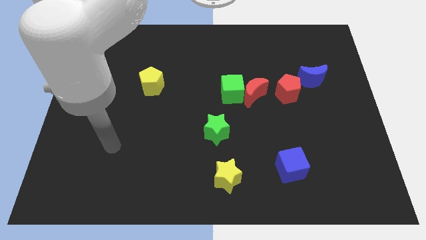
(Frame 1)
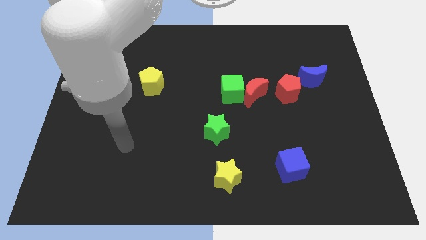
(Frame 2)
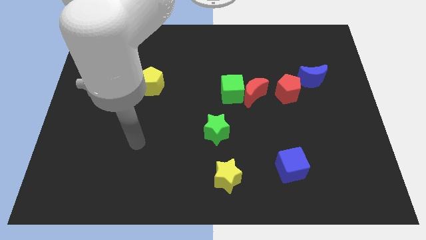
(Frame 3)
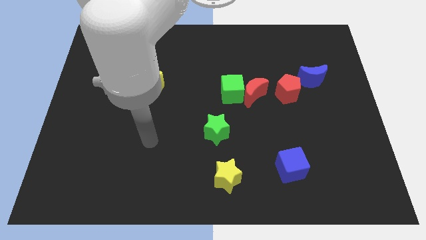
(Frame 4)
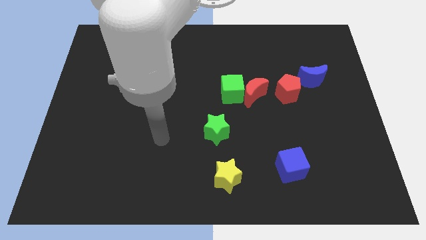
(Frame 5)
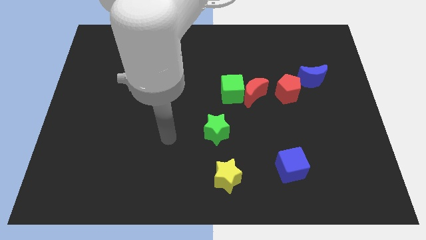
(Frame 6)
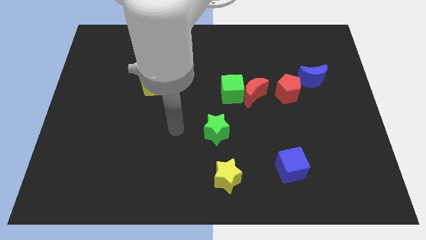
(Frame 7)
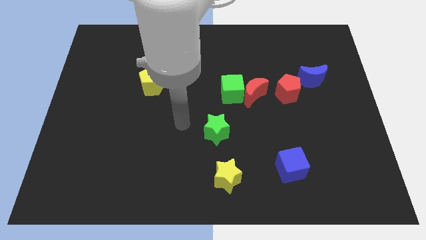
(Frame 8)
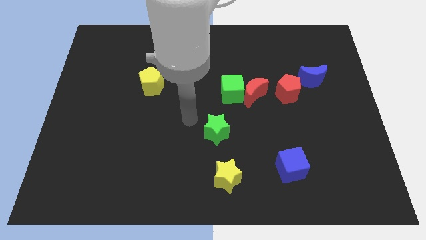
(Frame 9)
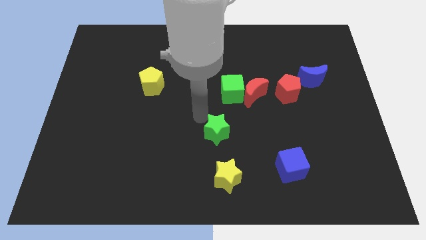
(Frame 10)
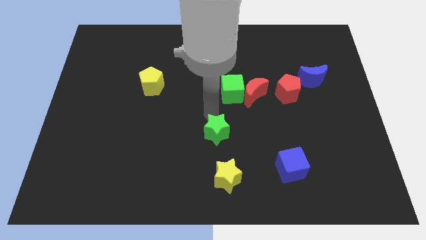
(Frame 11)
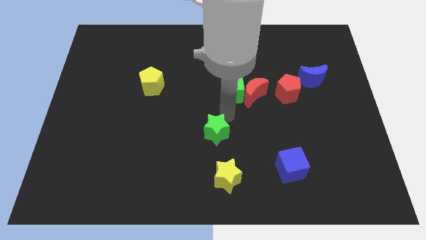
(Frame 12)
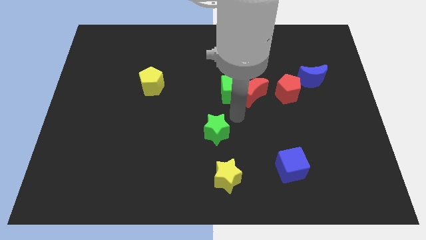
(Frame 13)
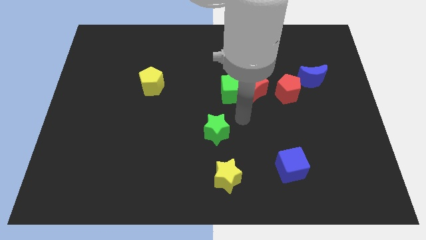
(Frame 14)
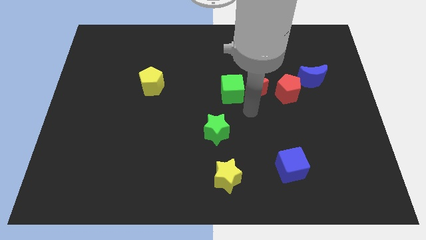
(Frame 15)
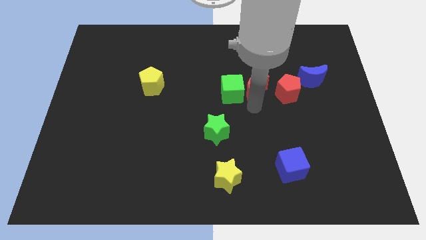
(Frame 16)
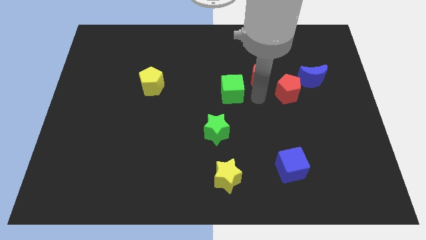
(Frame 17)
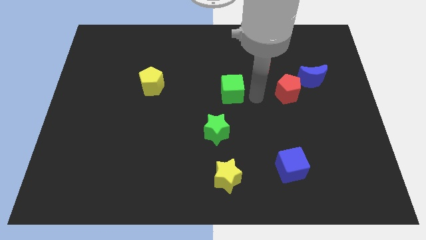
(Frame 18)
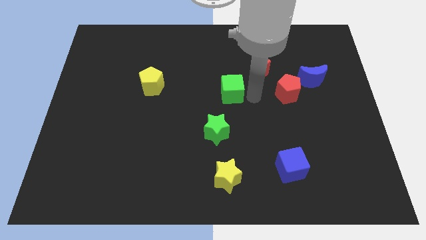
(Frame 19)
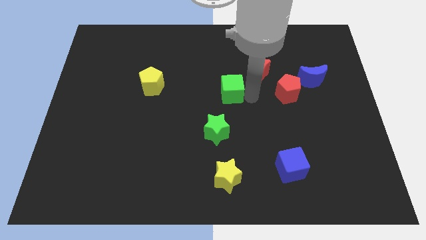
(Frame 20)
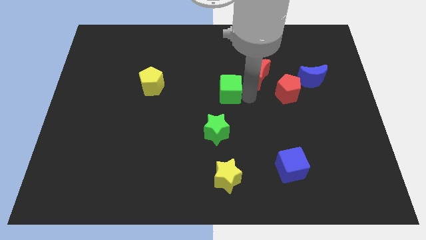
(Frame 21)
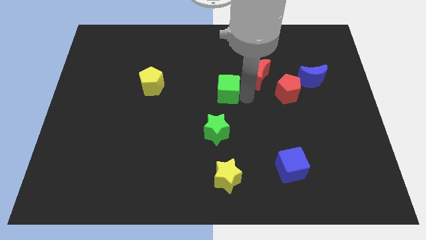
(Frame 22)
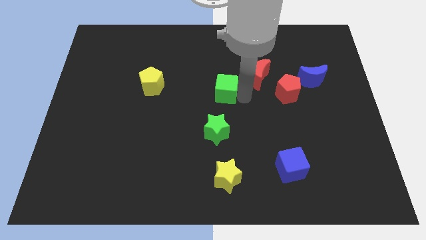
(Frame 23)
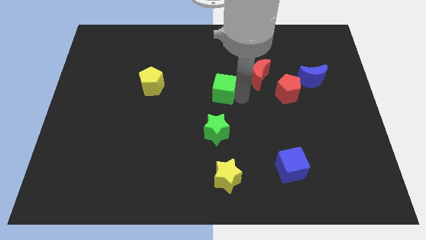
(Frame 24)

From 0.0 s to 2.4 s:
separate the green cube from the red moon

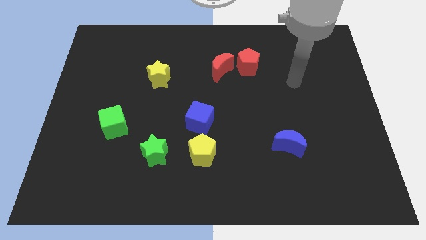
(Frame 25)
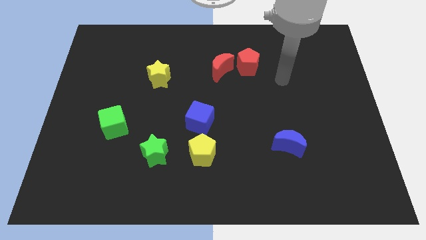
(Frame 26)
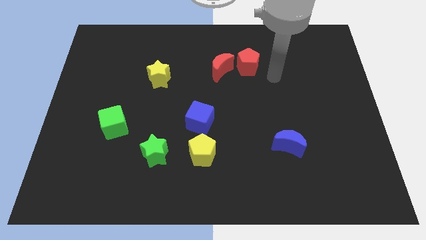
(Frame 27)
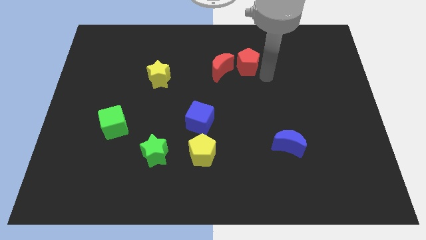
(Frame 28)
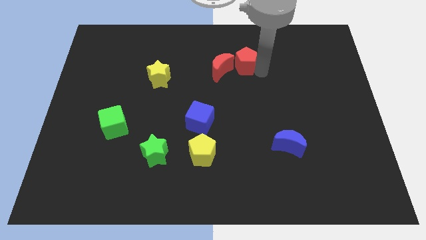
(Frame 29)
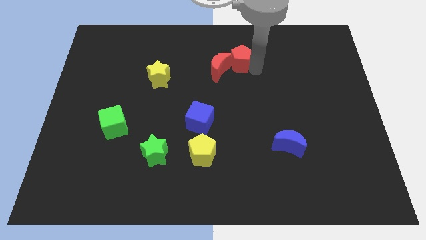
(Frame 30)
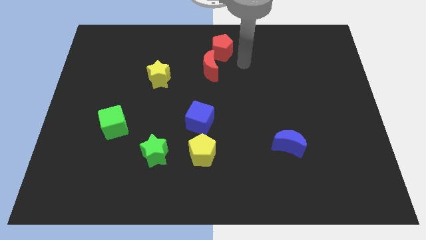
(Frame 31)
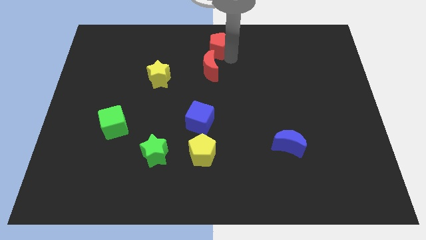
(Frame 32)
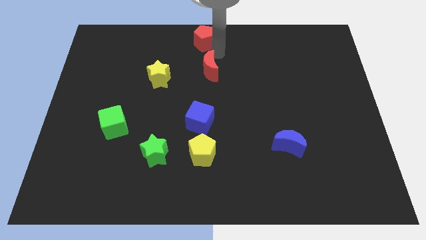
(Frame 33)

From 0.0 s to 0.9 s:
separate the red moon from the red pentagon

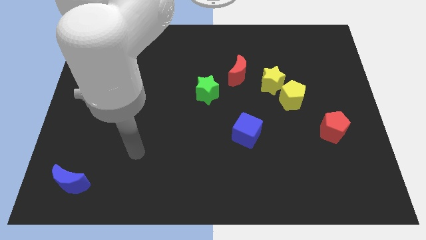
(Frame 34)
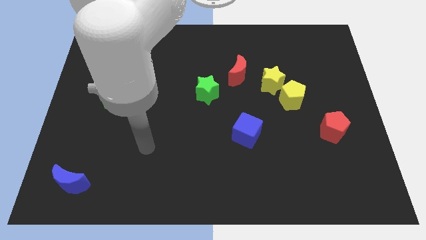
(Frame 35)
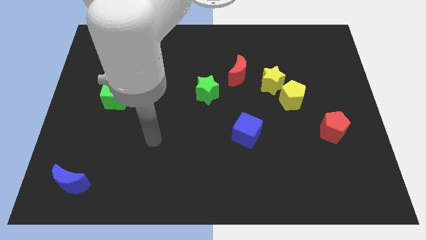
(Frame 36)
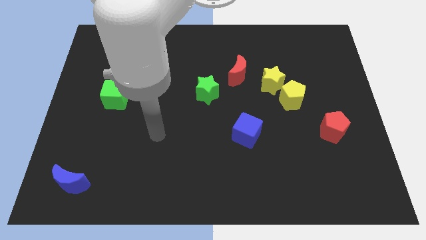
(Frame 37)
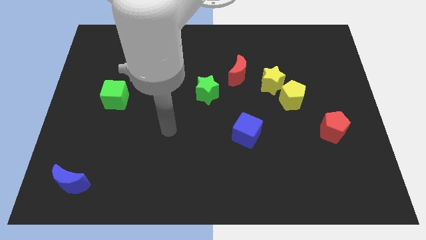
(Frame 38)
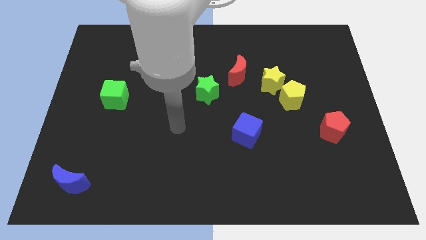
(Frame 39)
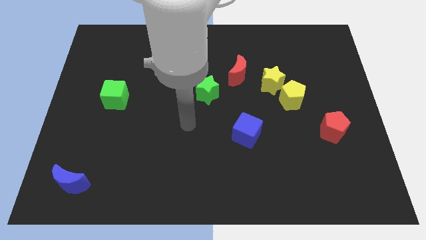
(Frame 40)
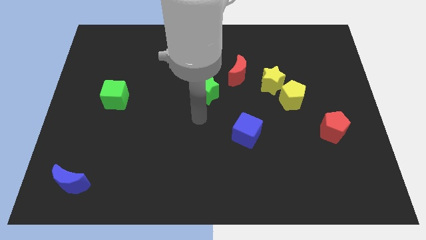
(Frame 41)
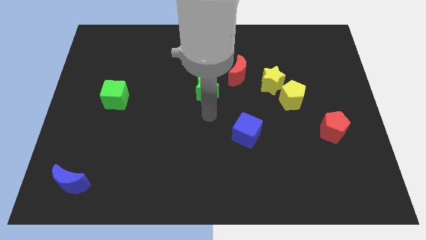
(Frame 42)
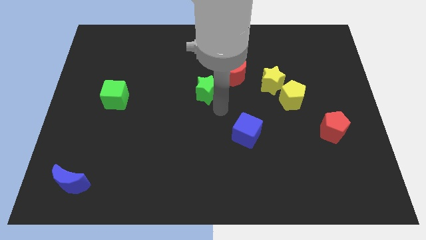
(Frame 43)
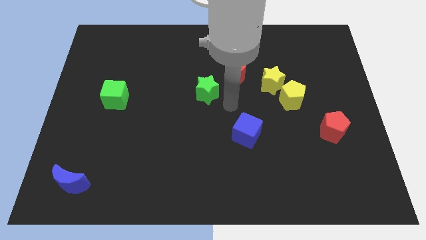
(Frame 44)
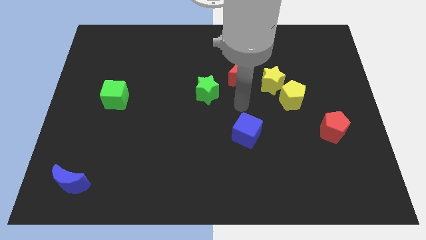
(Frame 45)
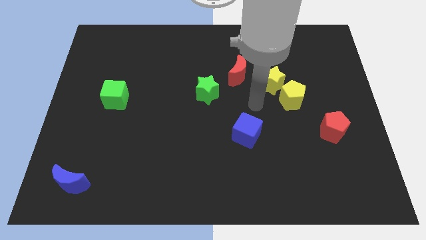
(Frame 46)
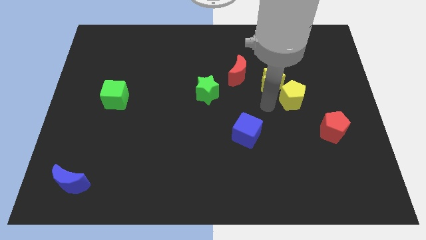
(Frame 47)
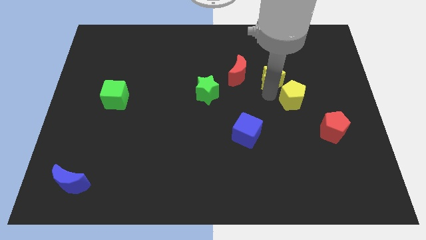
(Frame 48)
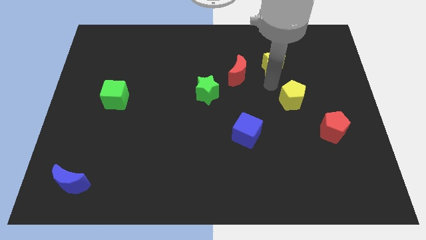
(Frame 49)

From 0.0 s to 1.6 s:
separate the yellow pentagon from the yellow star

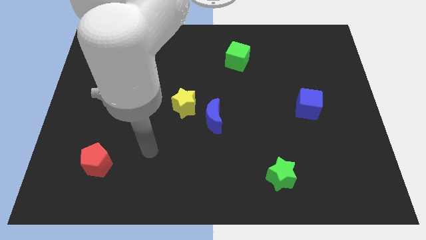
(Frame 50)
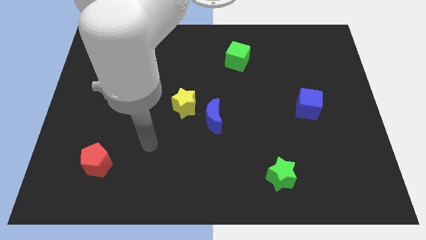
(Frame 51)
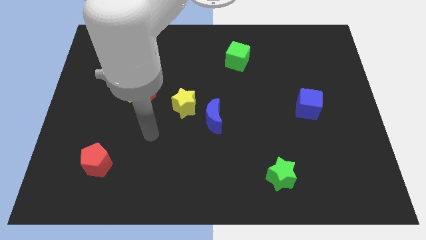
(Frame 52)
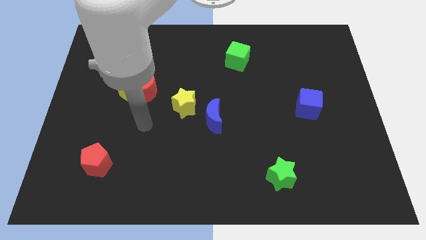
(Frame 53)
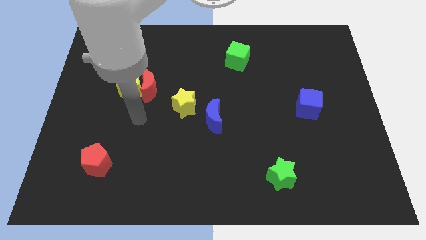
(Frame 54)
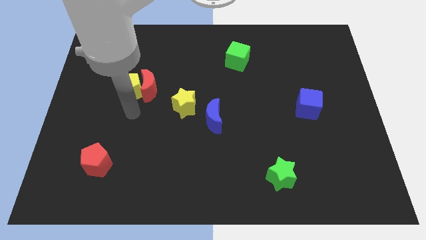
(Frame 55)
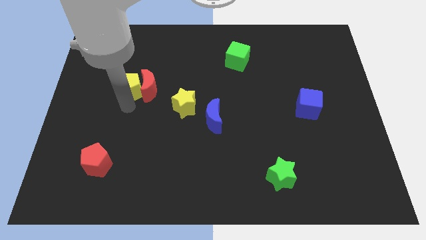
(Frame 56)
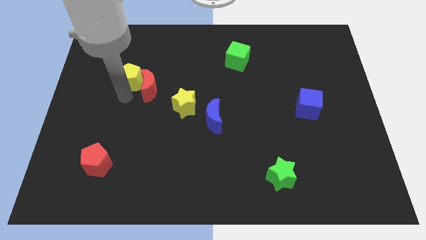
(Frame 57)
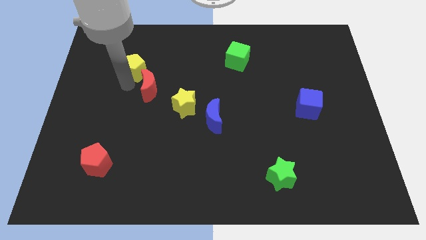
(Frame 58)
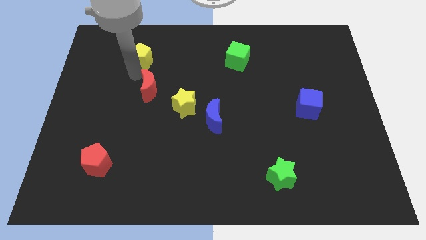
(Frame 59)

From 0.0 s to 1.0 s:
separate the red moon from the yellow pentagon

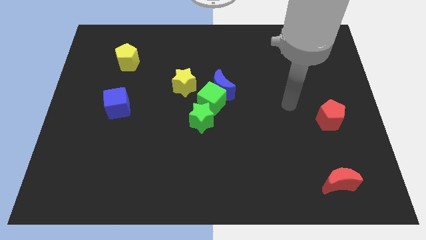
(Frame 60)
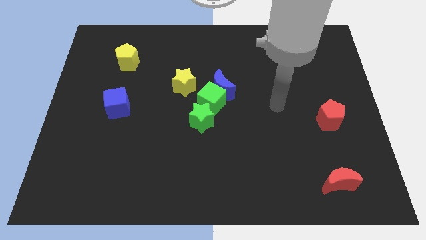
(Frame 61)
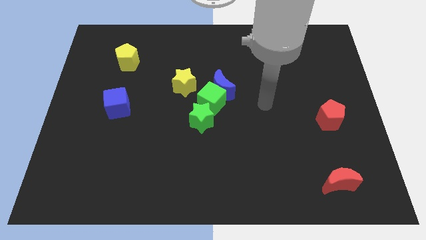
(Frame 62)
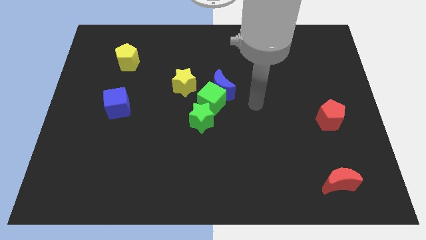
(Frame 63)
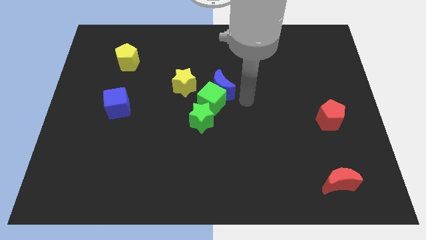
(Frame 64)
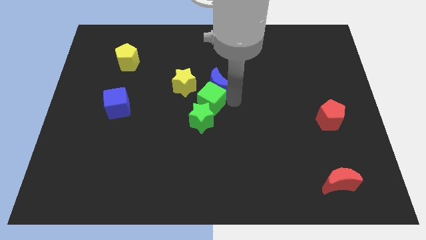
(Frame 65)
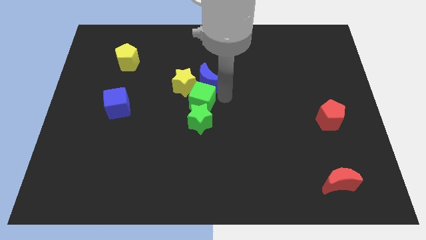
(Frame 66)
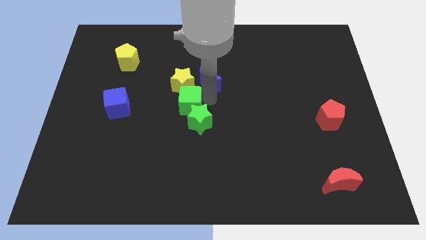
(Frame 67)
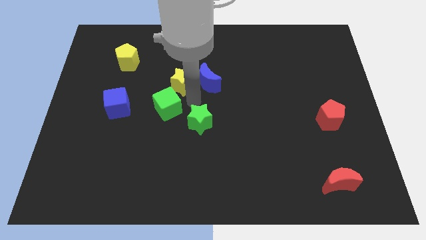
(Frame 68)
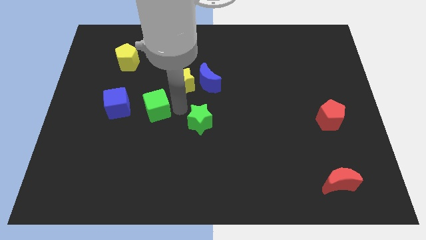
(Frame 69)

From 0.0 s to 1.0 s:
pull the green star apart from the green cube

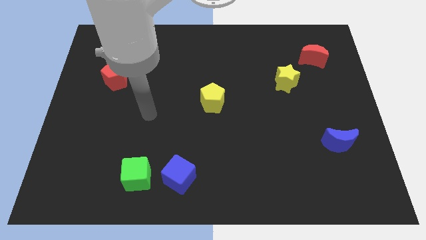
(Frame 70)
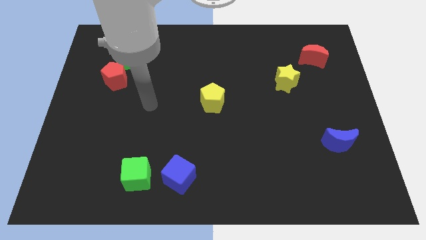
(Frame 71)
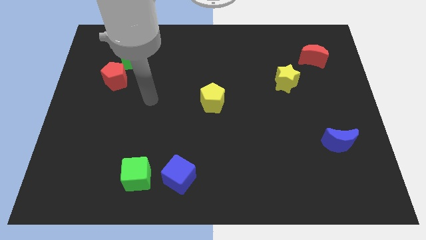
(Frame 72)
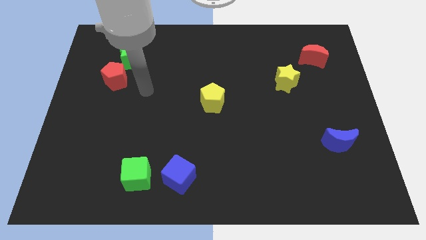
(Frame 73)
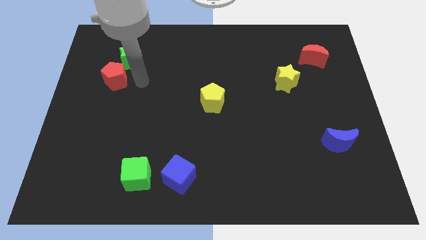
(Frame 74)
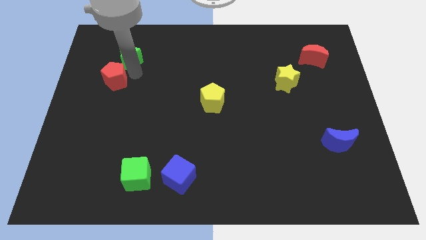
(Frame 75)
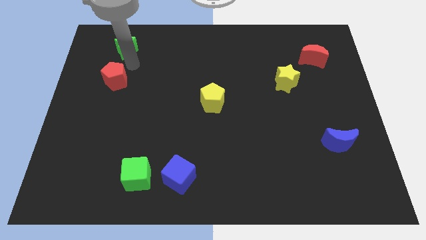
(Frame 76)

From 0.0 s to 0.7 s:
pull the red pentagon apart from the green star

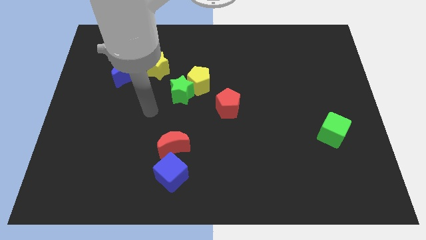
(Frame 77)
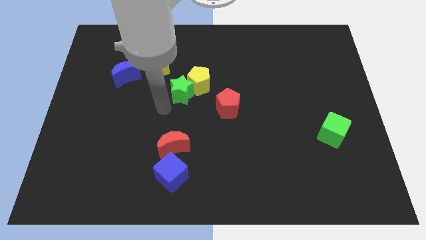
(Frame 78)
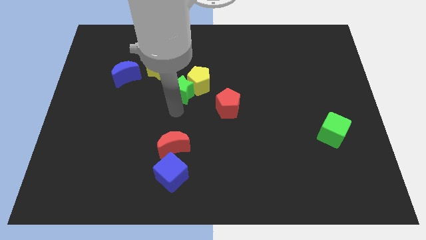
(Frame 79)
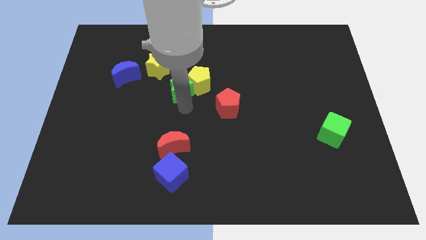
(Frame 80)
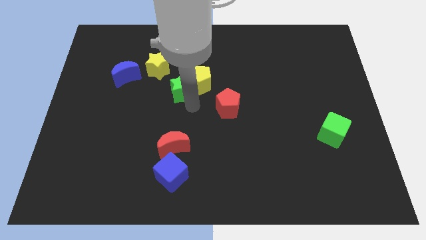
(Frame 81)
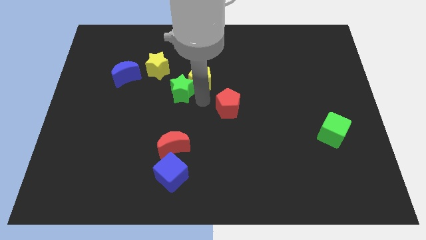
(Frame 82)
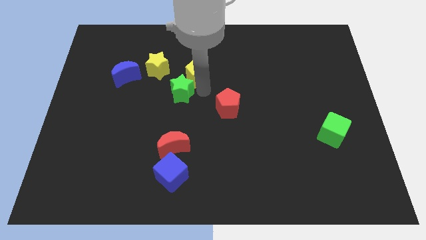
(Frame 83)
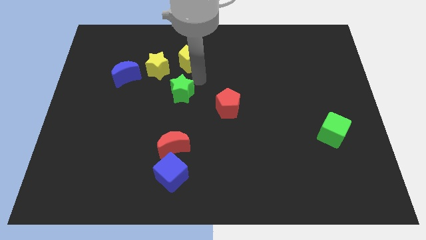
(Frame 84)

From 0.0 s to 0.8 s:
move the green star away from the yellow pentagon

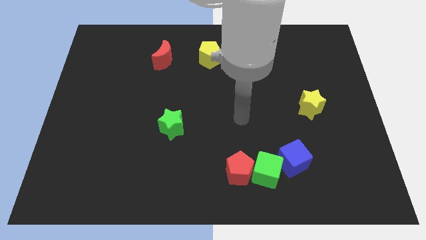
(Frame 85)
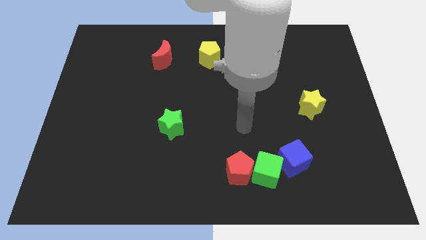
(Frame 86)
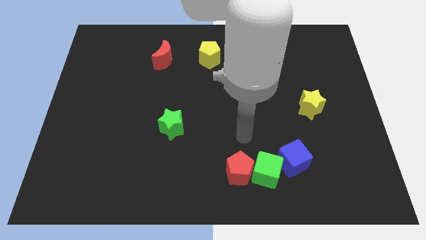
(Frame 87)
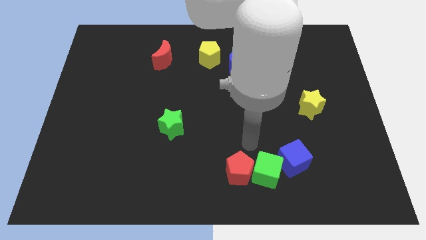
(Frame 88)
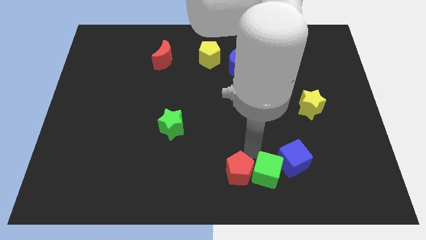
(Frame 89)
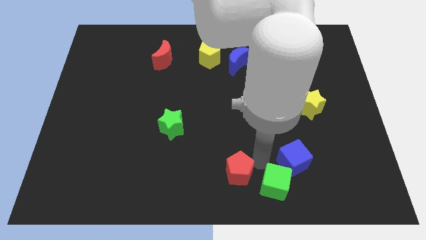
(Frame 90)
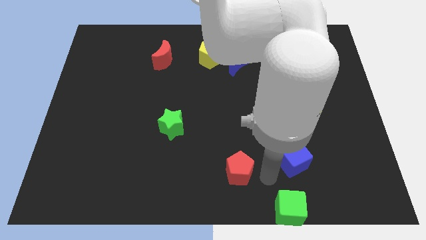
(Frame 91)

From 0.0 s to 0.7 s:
move the red pentagon away from the green cube

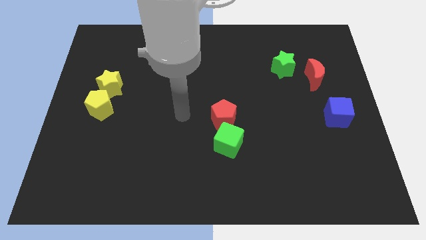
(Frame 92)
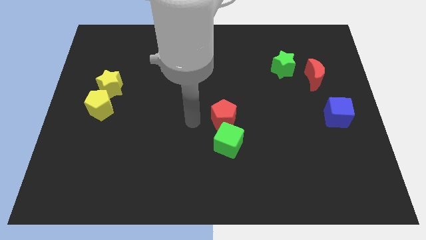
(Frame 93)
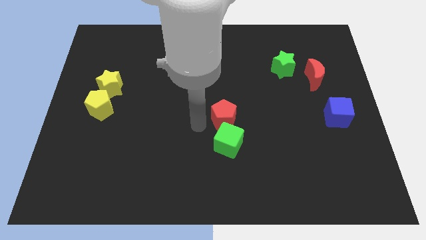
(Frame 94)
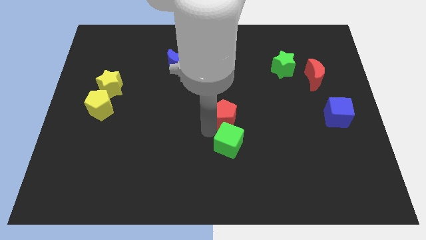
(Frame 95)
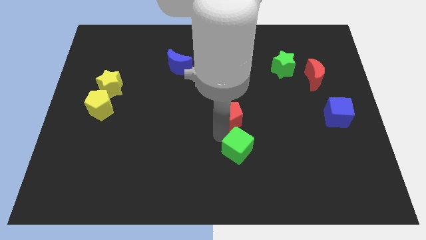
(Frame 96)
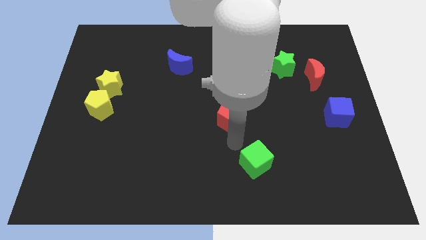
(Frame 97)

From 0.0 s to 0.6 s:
pull the red pentagon apart from the green cube
